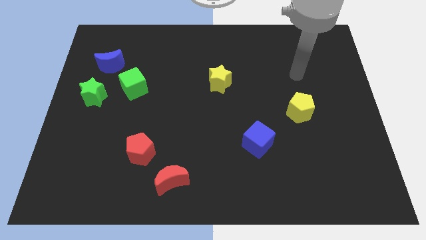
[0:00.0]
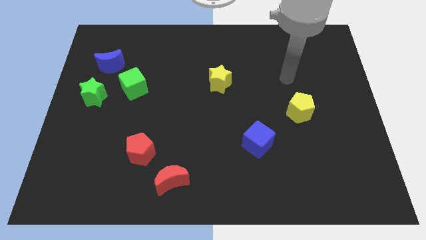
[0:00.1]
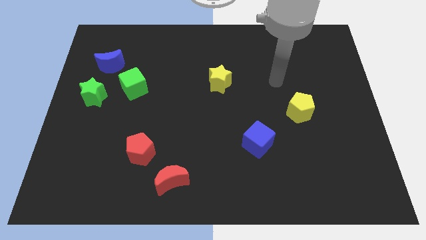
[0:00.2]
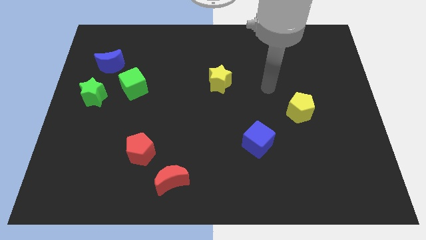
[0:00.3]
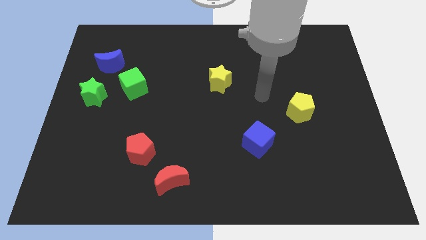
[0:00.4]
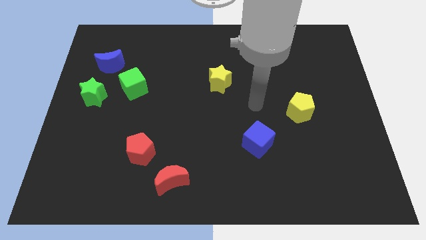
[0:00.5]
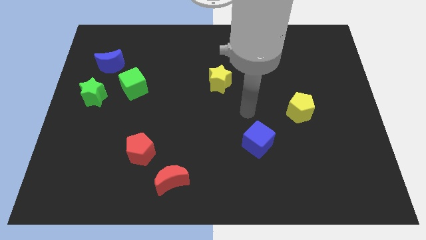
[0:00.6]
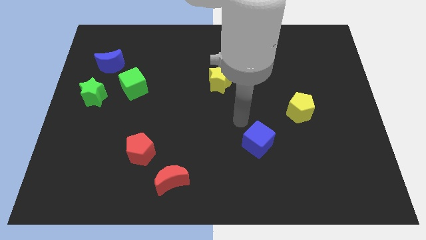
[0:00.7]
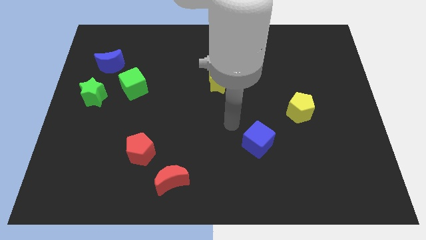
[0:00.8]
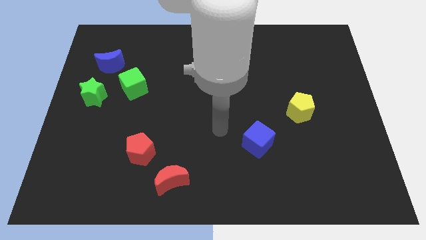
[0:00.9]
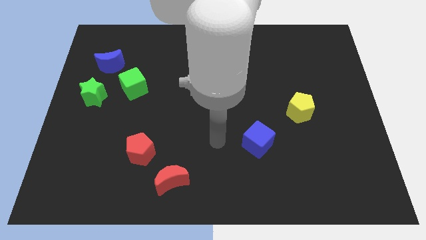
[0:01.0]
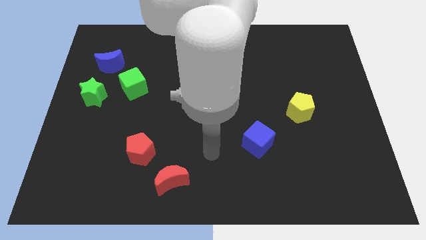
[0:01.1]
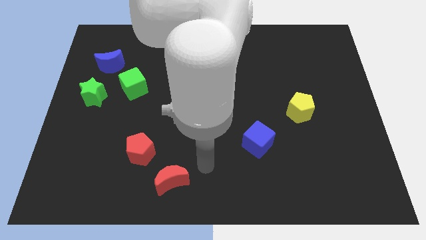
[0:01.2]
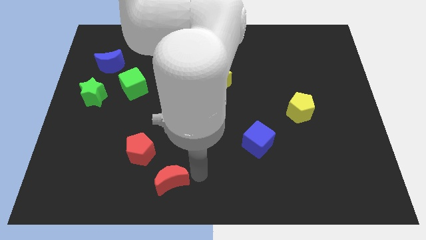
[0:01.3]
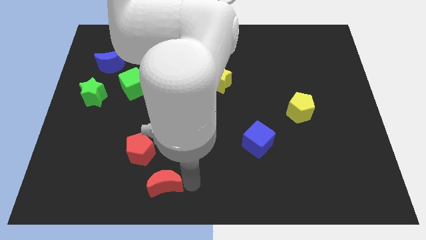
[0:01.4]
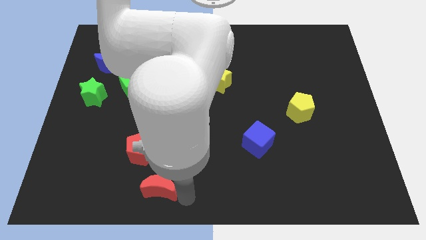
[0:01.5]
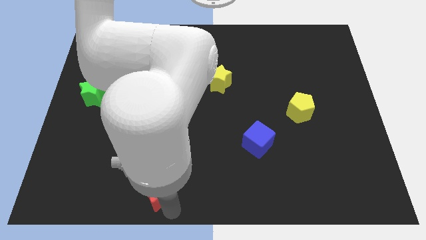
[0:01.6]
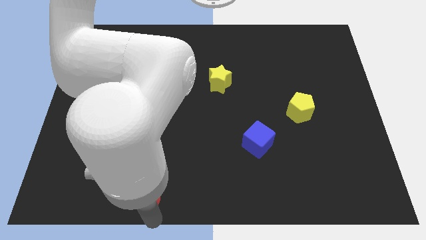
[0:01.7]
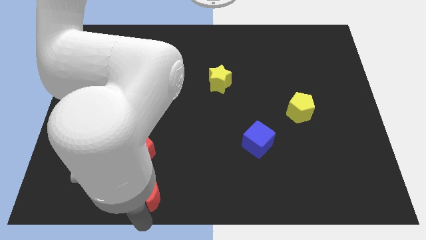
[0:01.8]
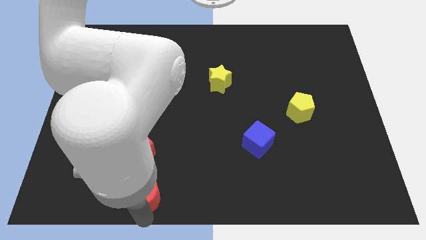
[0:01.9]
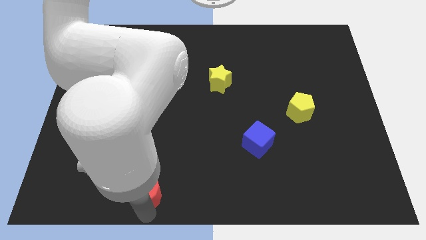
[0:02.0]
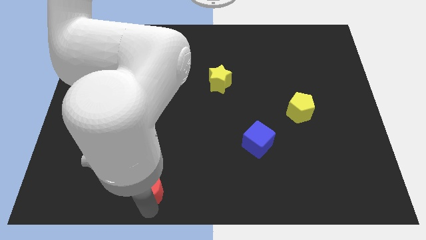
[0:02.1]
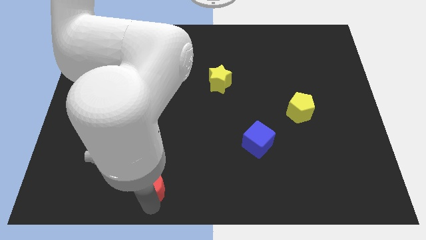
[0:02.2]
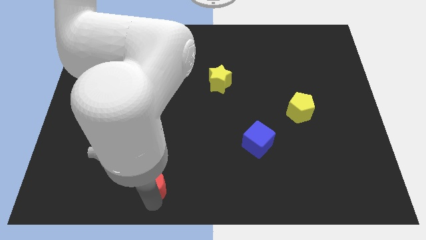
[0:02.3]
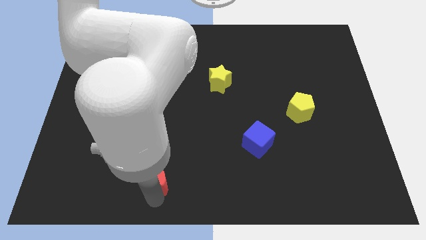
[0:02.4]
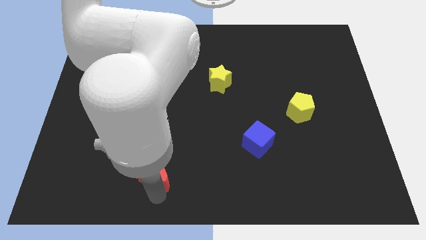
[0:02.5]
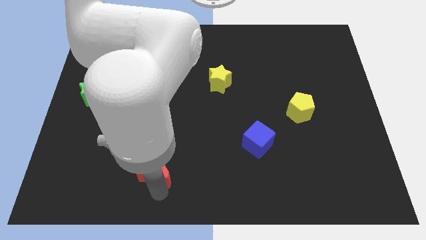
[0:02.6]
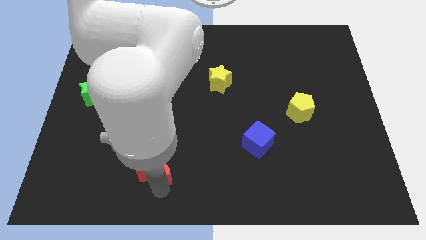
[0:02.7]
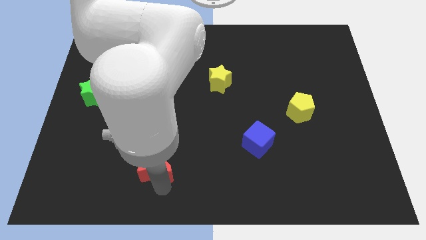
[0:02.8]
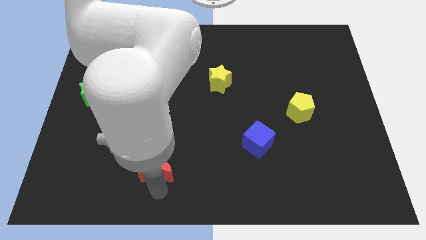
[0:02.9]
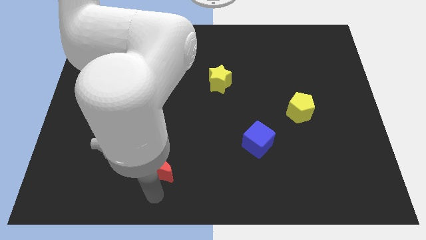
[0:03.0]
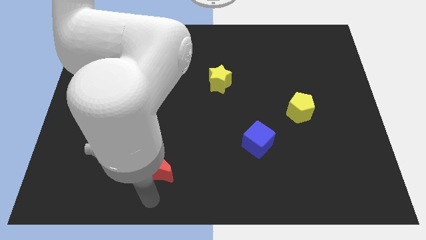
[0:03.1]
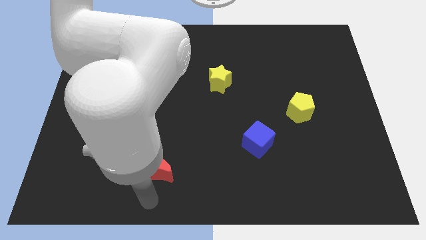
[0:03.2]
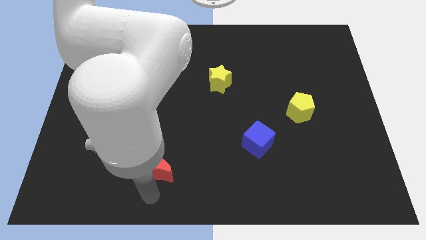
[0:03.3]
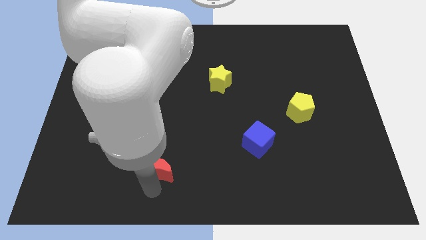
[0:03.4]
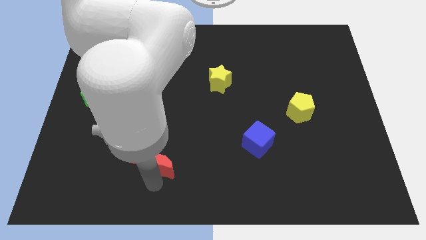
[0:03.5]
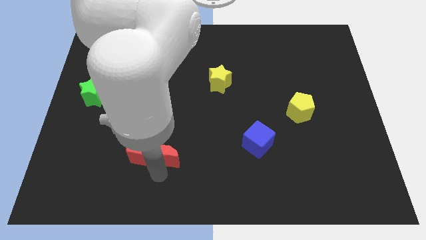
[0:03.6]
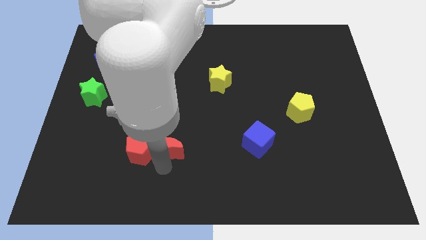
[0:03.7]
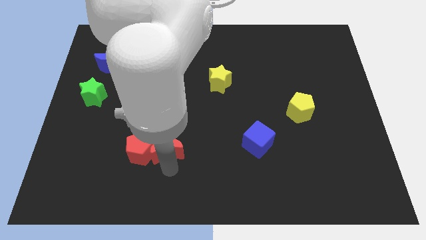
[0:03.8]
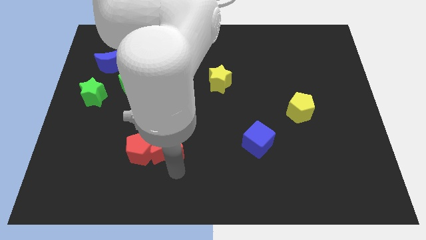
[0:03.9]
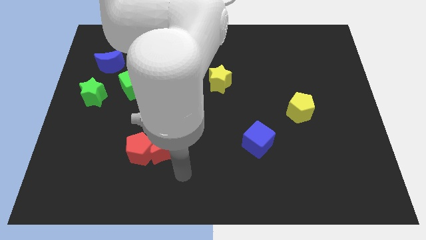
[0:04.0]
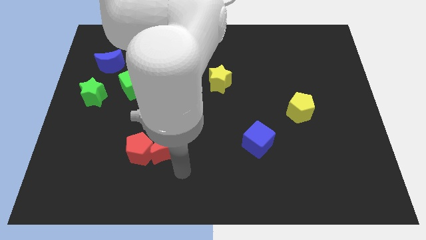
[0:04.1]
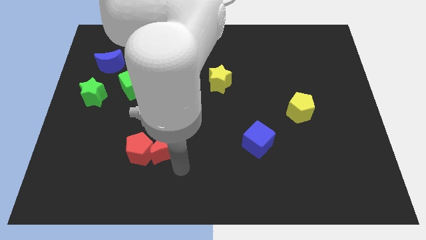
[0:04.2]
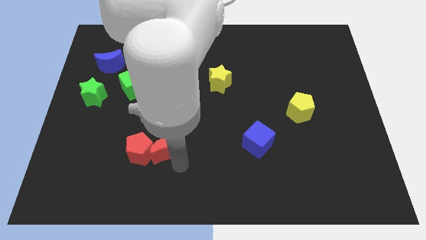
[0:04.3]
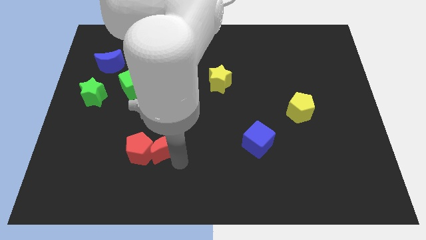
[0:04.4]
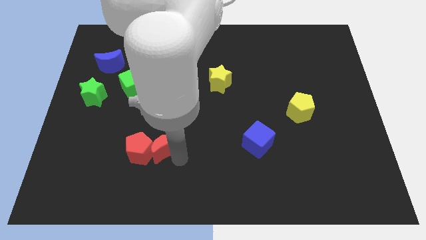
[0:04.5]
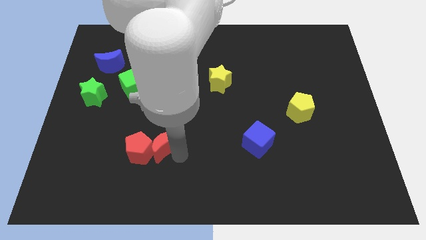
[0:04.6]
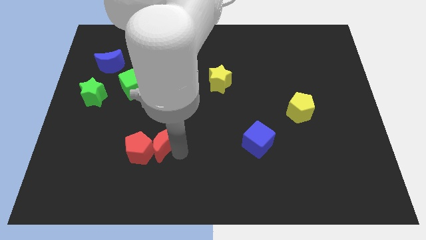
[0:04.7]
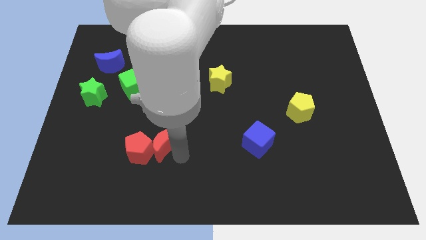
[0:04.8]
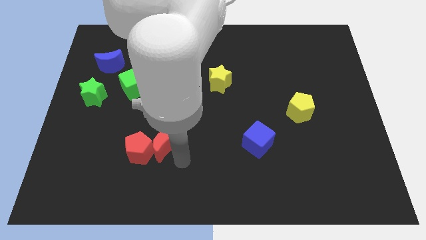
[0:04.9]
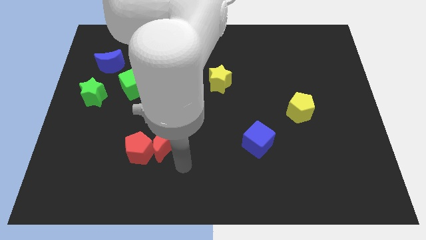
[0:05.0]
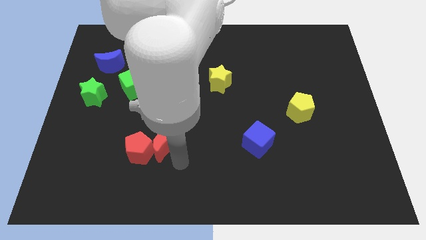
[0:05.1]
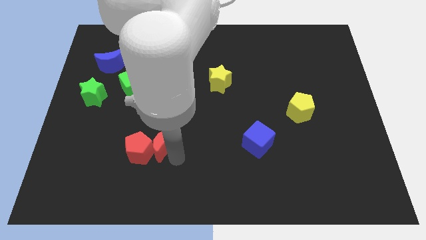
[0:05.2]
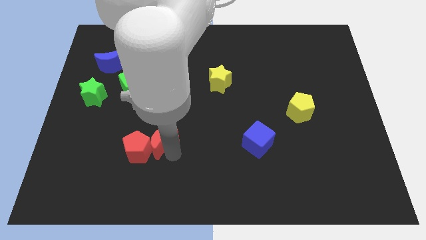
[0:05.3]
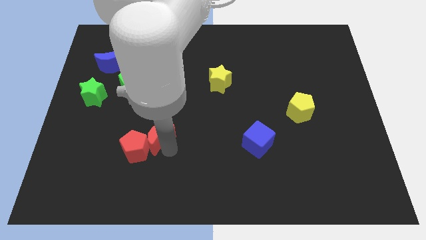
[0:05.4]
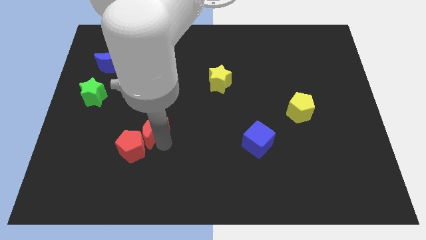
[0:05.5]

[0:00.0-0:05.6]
move the red moon above the red pentagon

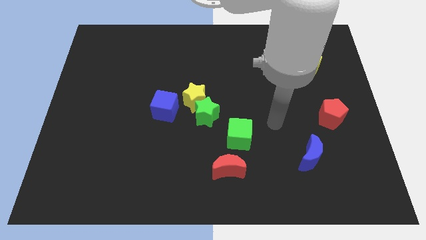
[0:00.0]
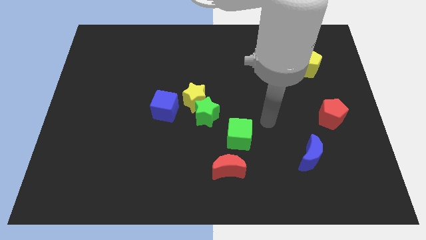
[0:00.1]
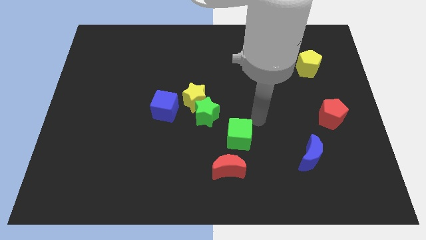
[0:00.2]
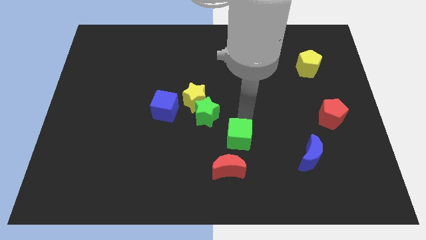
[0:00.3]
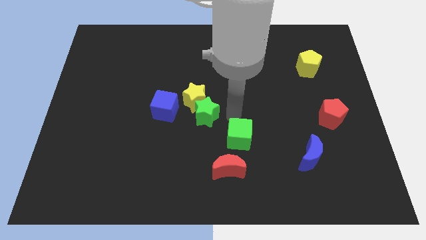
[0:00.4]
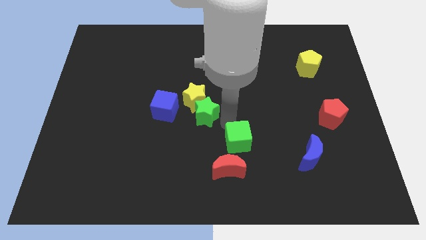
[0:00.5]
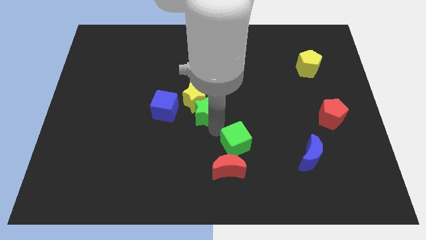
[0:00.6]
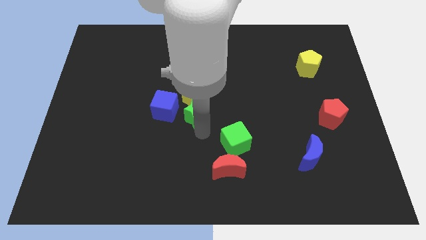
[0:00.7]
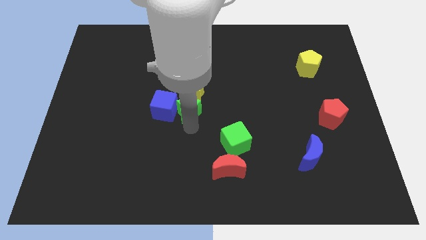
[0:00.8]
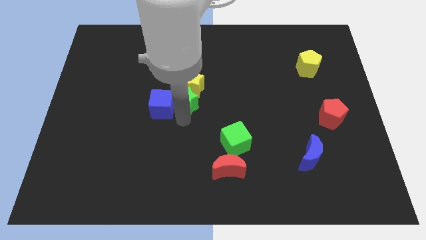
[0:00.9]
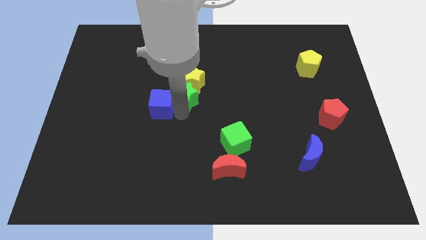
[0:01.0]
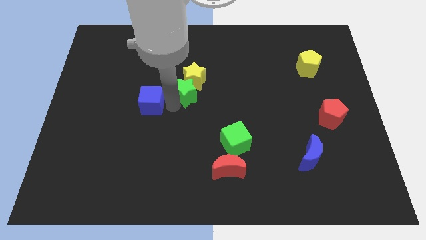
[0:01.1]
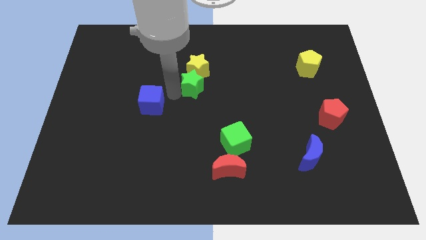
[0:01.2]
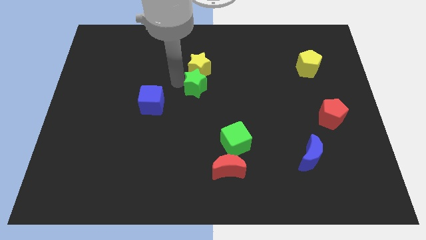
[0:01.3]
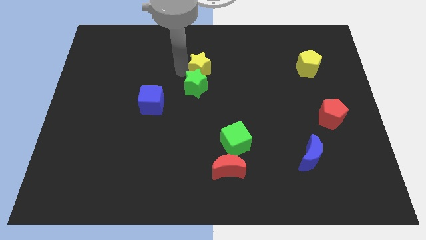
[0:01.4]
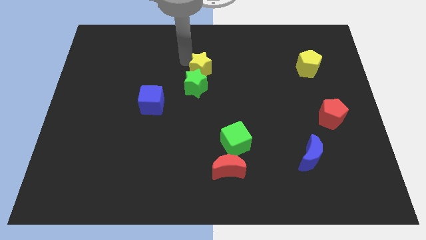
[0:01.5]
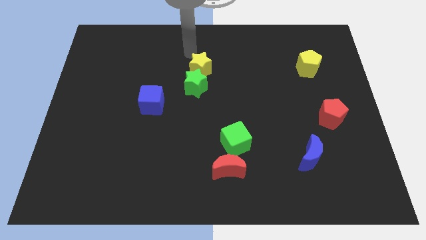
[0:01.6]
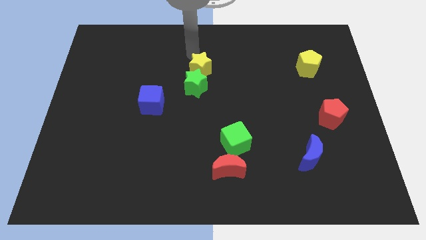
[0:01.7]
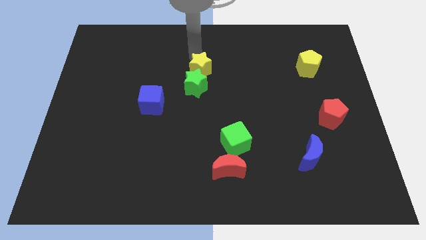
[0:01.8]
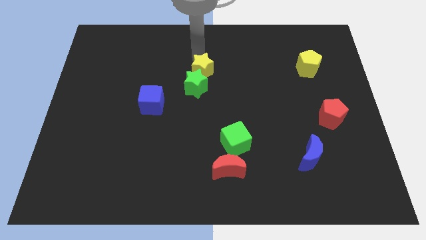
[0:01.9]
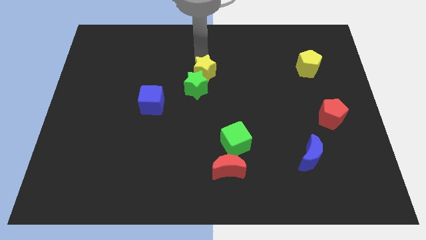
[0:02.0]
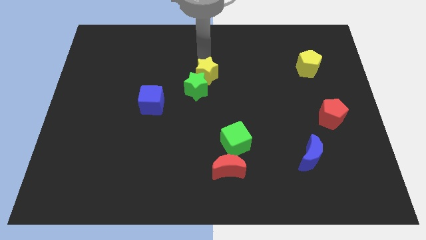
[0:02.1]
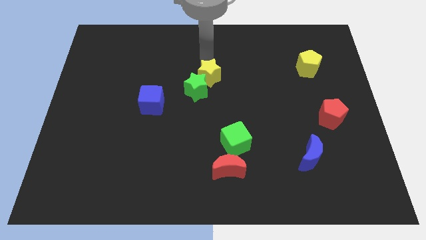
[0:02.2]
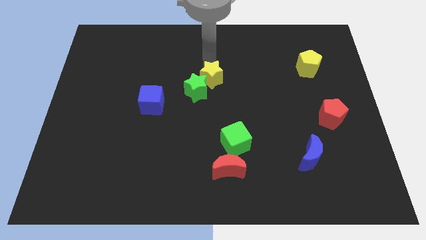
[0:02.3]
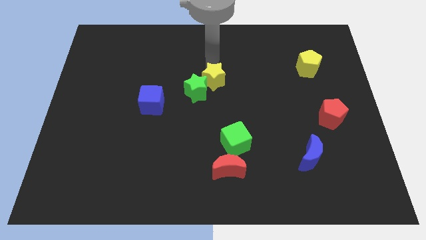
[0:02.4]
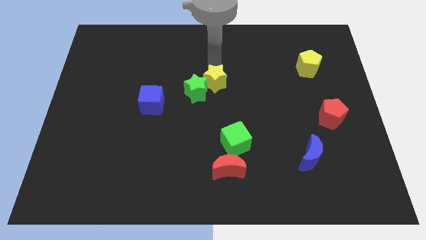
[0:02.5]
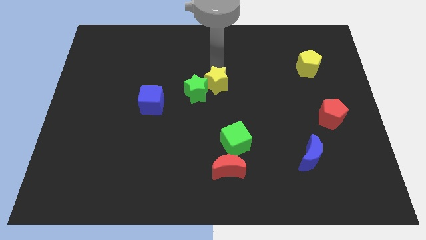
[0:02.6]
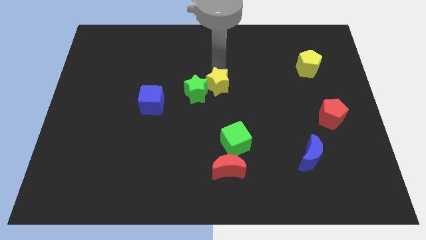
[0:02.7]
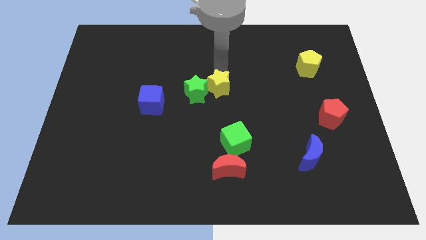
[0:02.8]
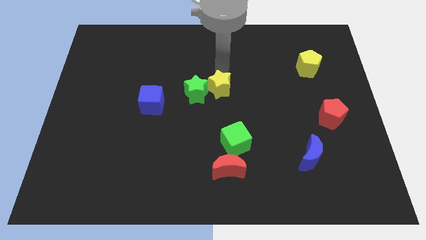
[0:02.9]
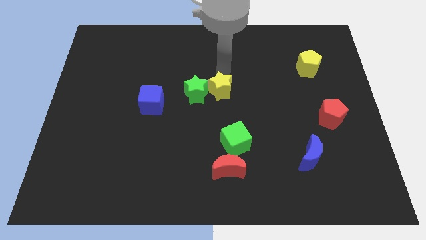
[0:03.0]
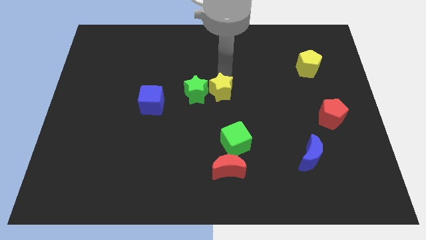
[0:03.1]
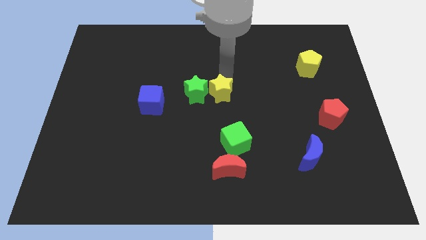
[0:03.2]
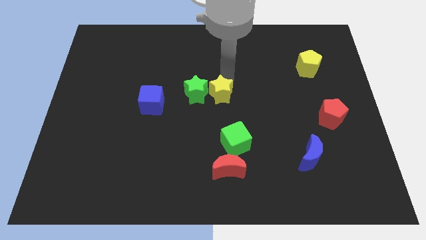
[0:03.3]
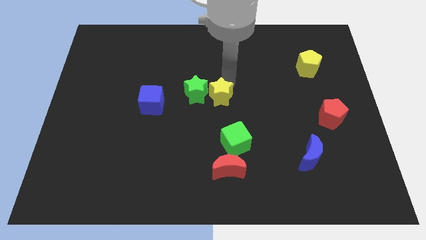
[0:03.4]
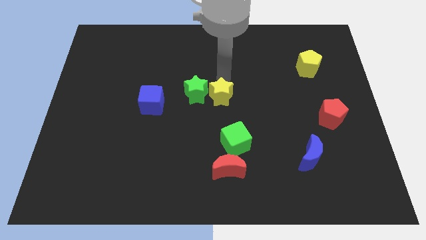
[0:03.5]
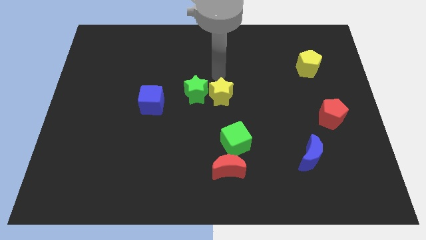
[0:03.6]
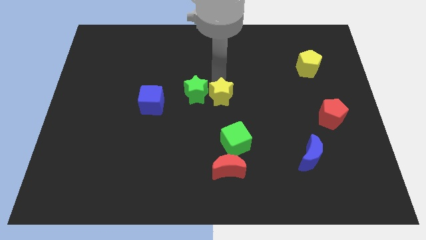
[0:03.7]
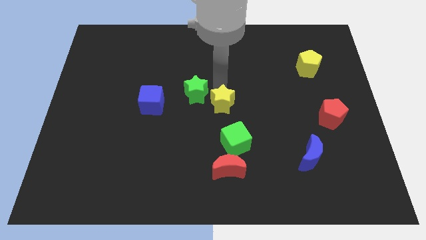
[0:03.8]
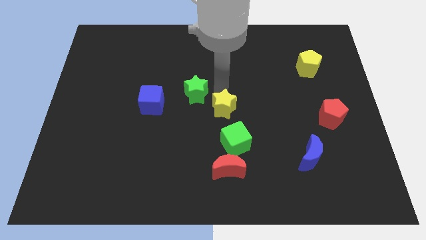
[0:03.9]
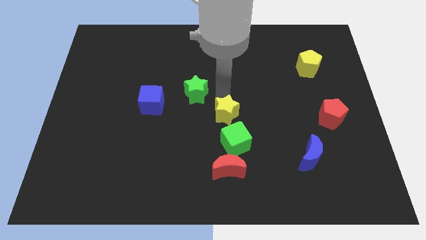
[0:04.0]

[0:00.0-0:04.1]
push the yellow star above the red moon
